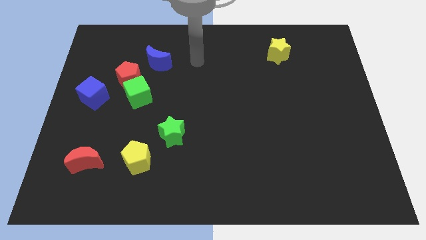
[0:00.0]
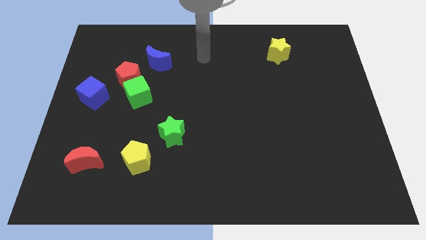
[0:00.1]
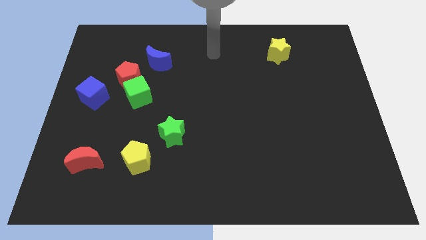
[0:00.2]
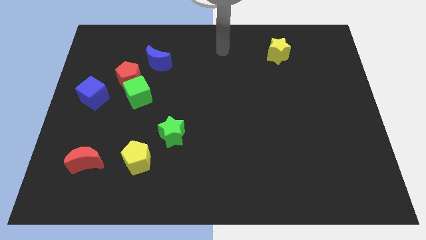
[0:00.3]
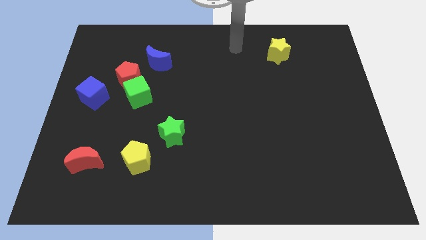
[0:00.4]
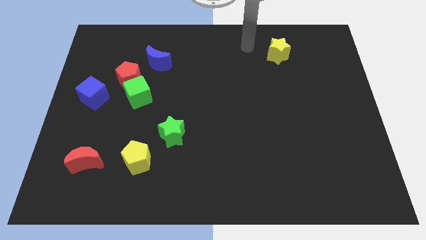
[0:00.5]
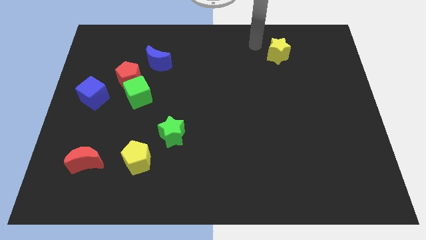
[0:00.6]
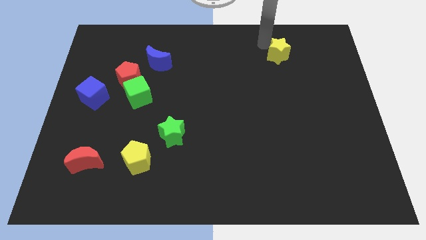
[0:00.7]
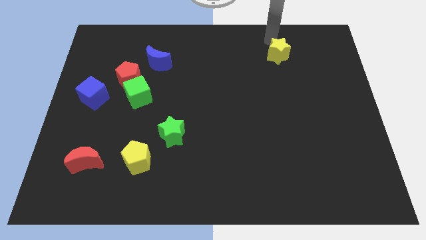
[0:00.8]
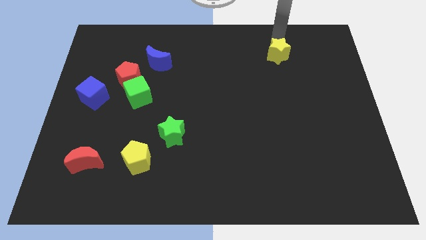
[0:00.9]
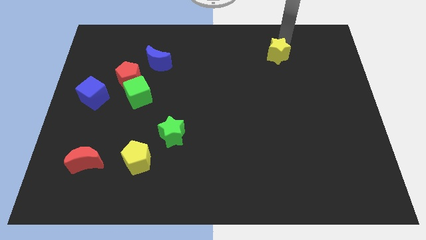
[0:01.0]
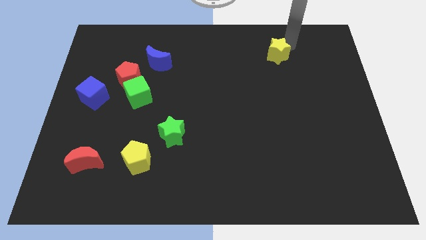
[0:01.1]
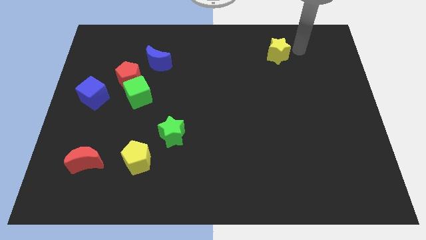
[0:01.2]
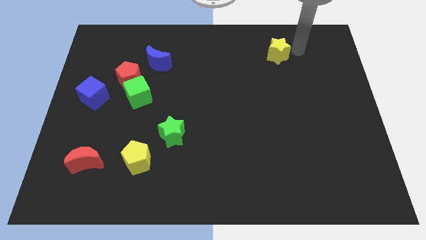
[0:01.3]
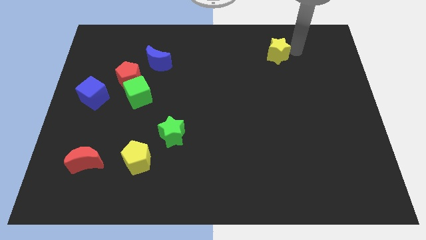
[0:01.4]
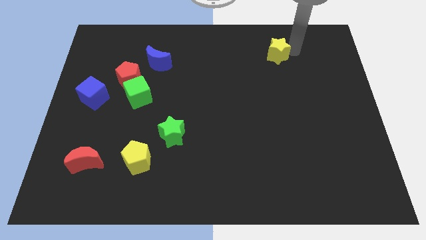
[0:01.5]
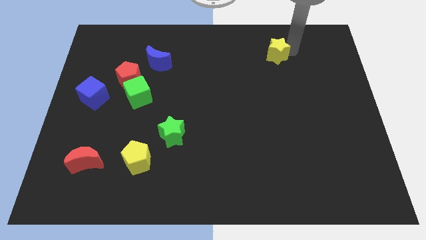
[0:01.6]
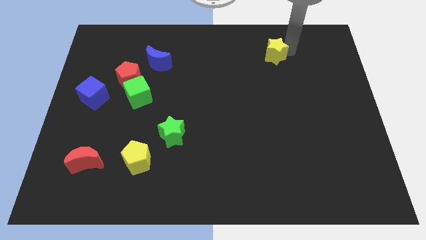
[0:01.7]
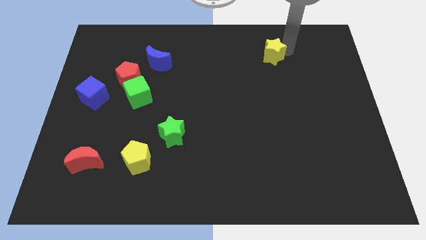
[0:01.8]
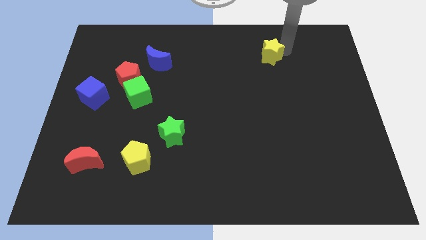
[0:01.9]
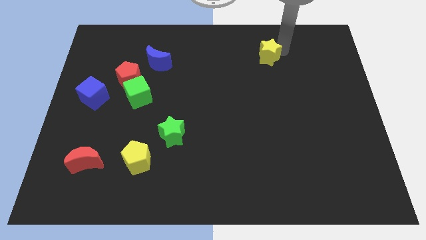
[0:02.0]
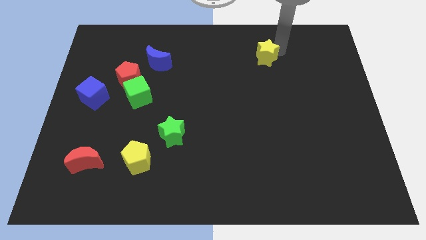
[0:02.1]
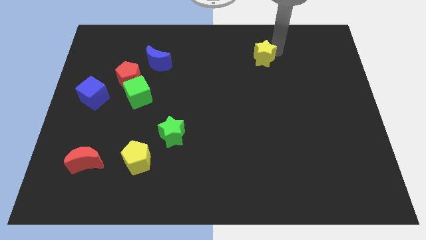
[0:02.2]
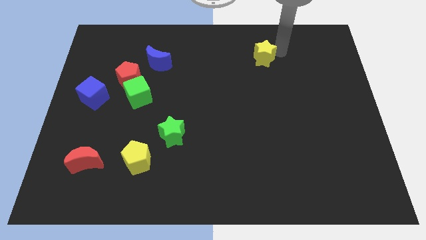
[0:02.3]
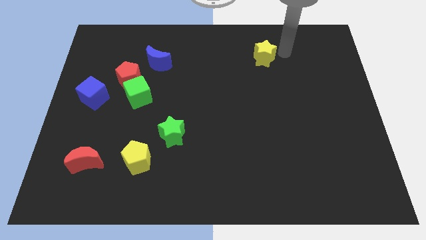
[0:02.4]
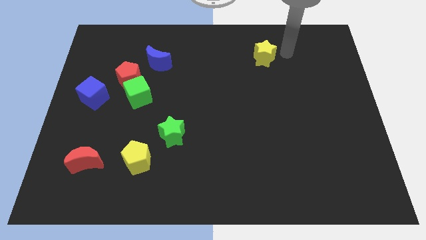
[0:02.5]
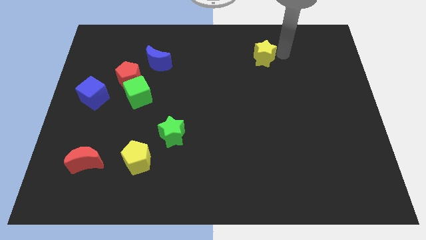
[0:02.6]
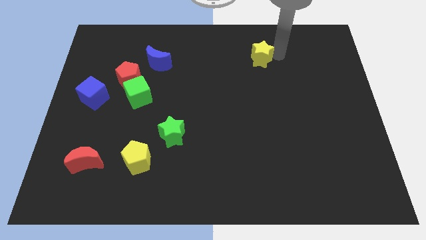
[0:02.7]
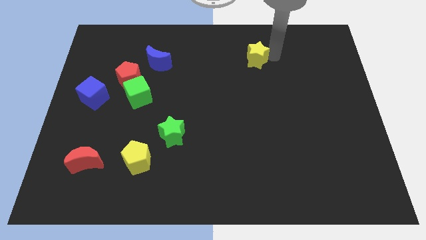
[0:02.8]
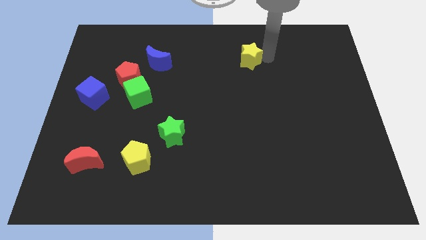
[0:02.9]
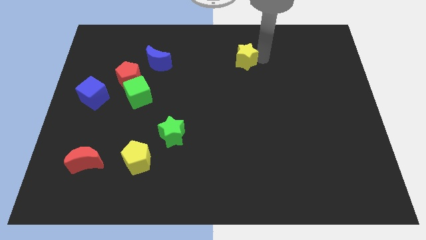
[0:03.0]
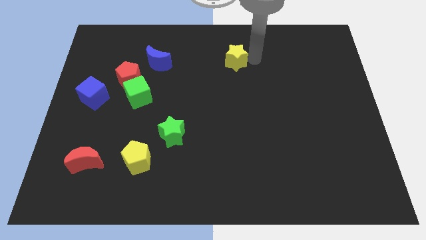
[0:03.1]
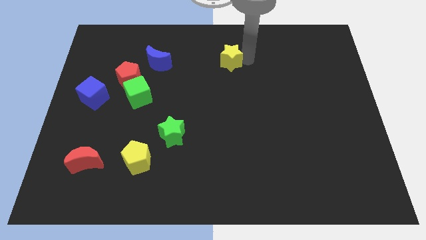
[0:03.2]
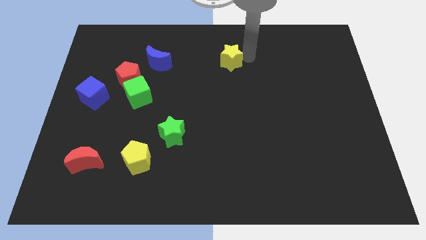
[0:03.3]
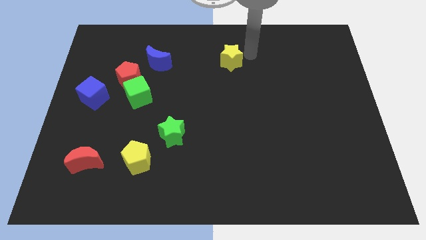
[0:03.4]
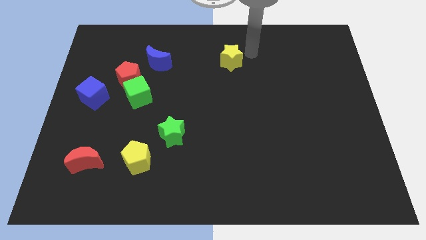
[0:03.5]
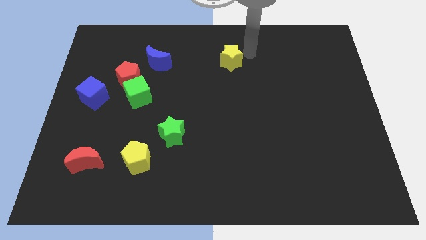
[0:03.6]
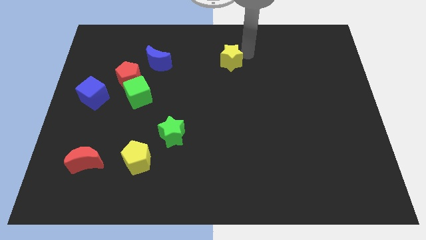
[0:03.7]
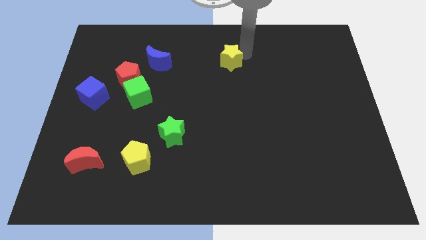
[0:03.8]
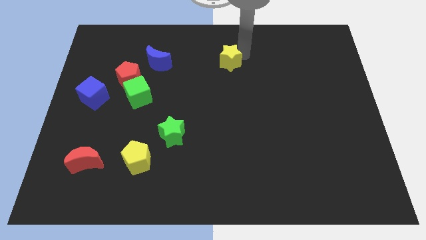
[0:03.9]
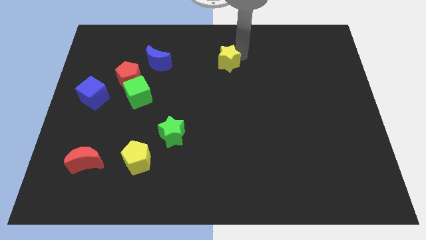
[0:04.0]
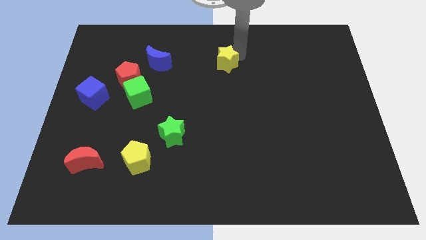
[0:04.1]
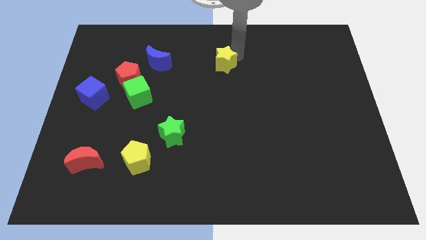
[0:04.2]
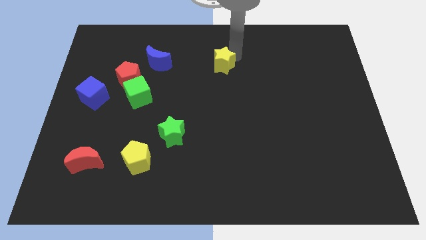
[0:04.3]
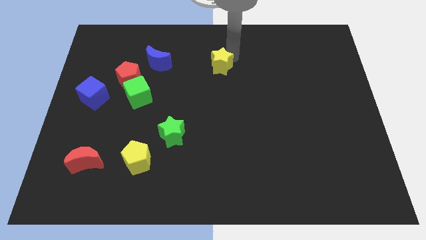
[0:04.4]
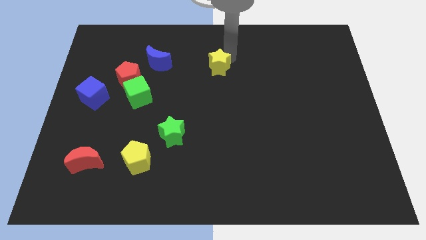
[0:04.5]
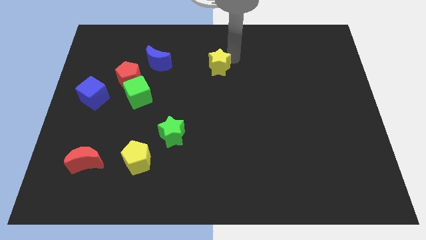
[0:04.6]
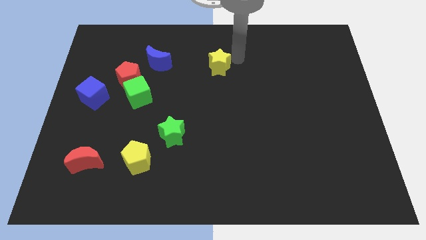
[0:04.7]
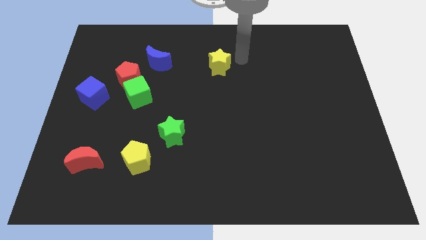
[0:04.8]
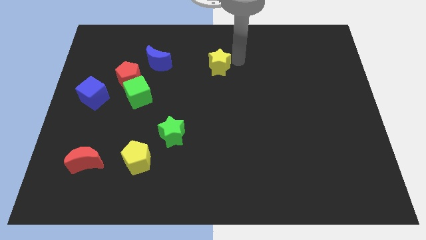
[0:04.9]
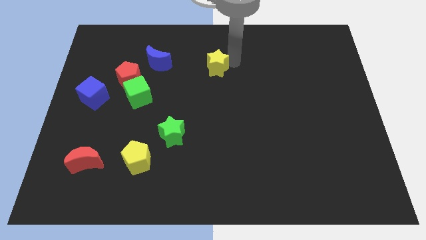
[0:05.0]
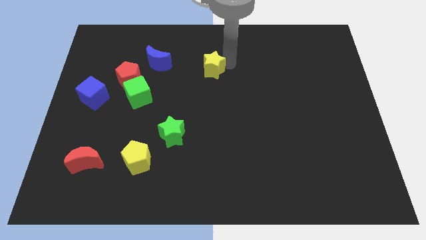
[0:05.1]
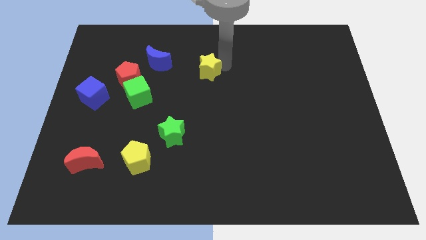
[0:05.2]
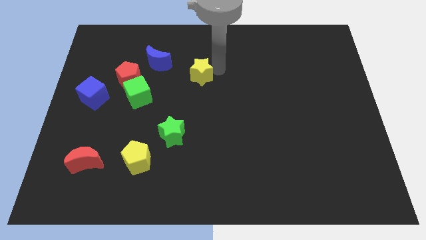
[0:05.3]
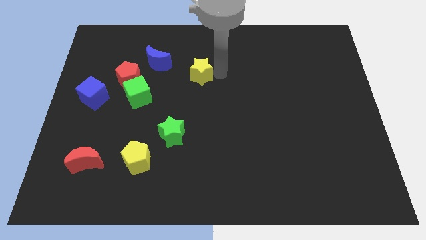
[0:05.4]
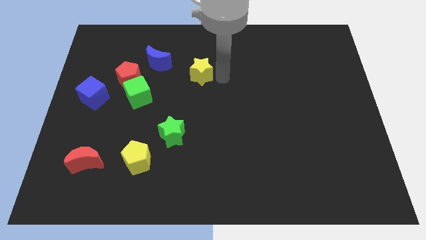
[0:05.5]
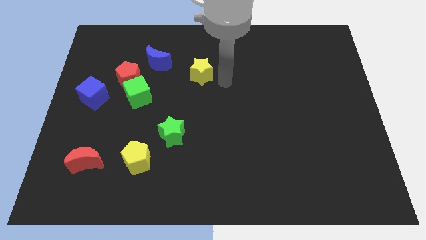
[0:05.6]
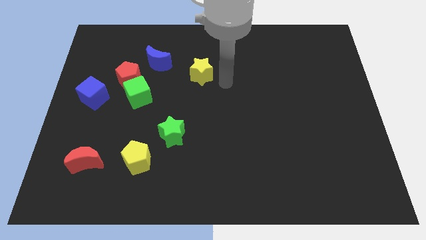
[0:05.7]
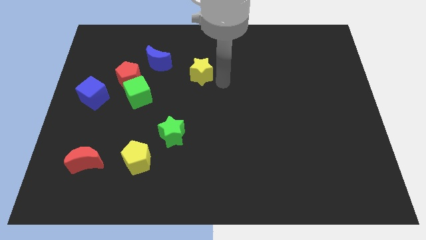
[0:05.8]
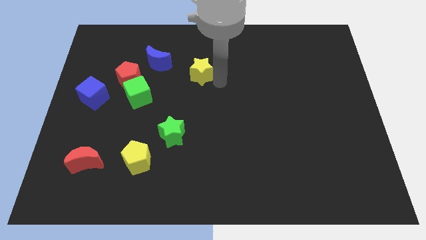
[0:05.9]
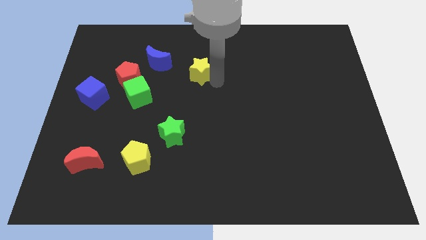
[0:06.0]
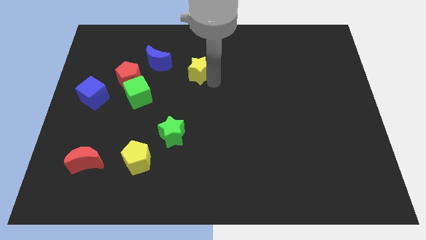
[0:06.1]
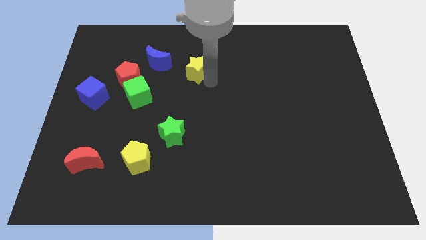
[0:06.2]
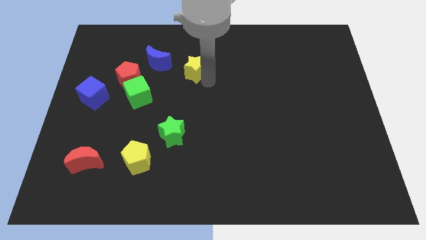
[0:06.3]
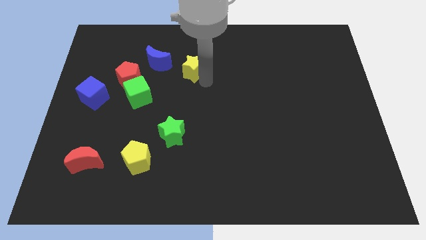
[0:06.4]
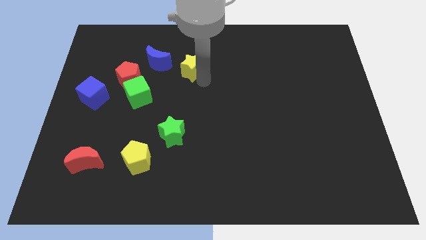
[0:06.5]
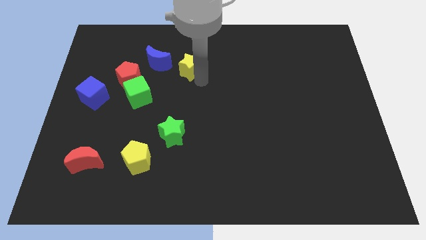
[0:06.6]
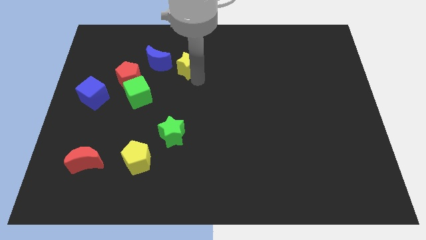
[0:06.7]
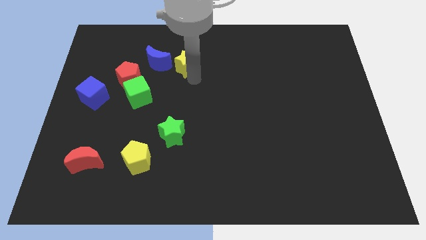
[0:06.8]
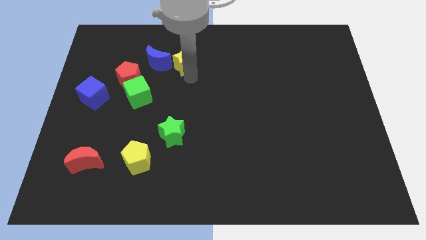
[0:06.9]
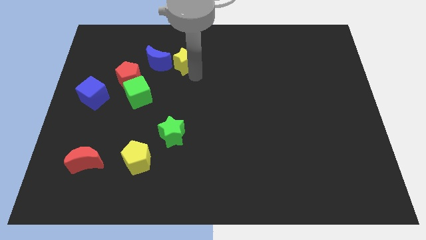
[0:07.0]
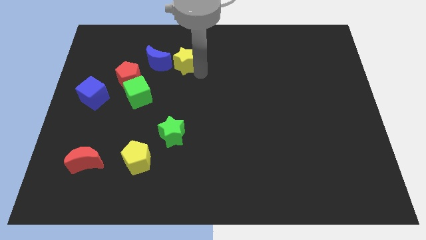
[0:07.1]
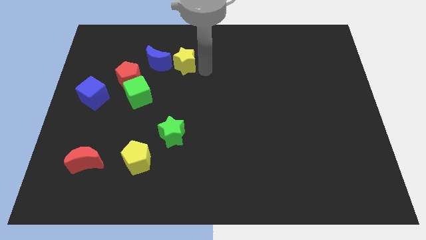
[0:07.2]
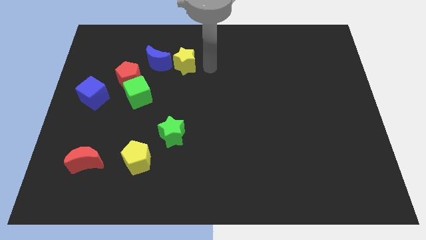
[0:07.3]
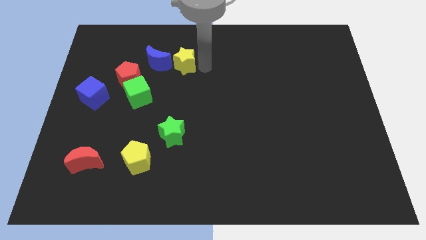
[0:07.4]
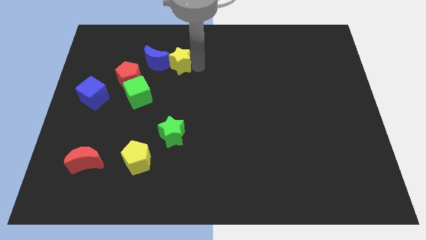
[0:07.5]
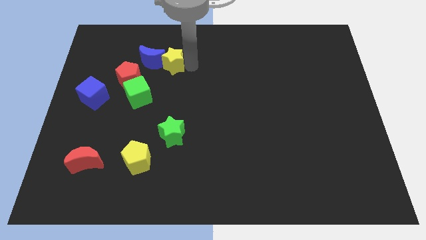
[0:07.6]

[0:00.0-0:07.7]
slide the yellow star close to the blue moon
